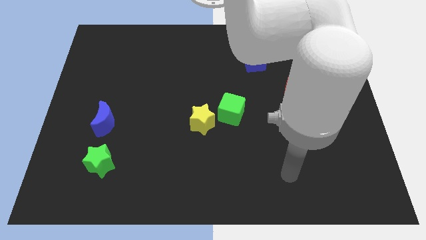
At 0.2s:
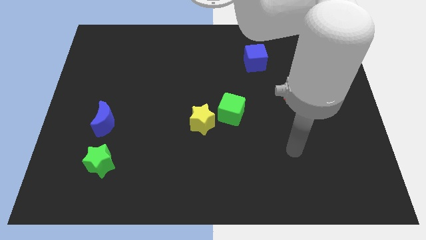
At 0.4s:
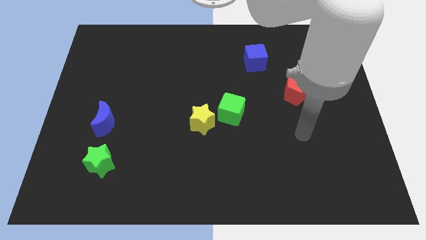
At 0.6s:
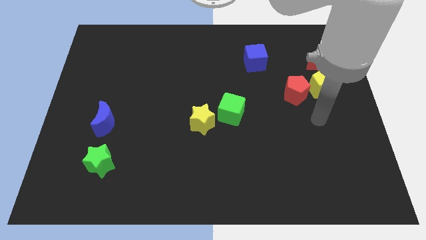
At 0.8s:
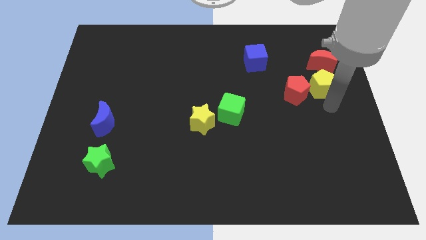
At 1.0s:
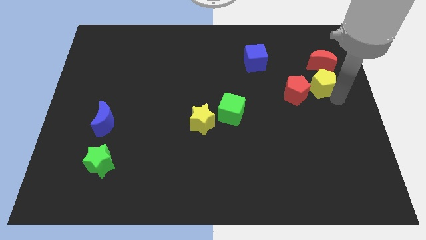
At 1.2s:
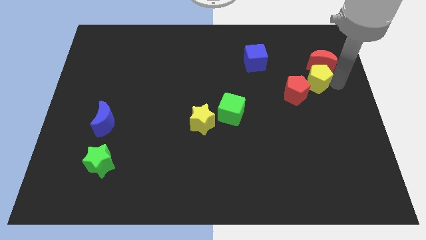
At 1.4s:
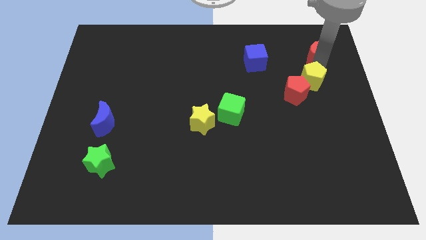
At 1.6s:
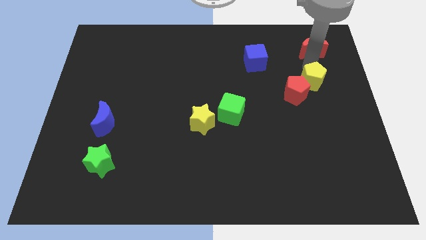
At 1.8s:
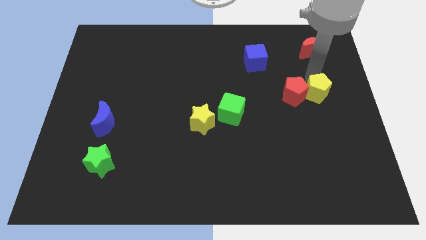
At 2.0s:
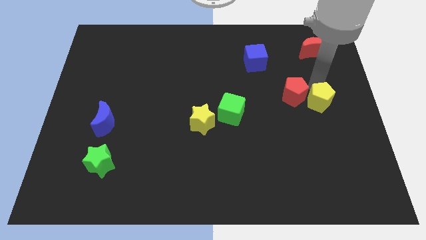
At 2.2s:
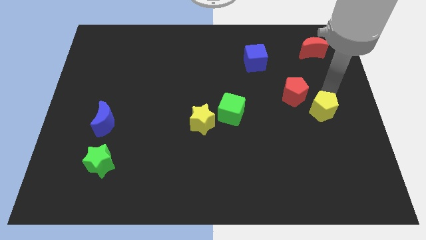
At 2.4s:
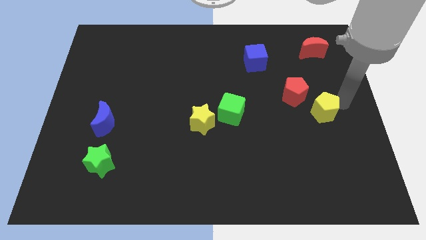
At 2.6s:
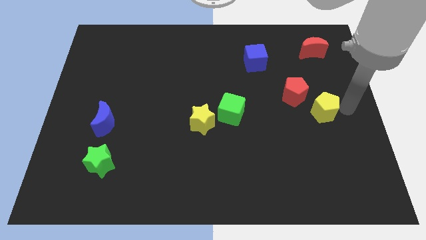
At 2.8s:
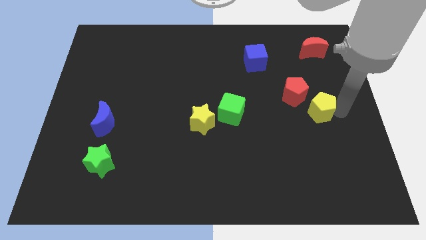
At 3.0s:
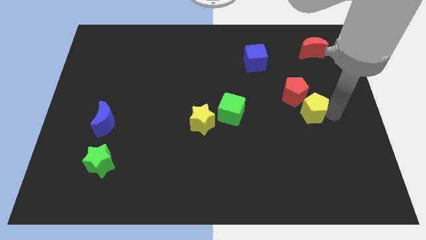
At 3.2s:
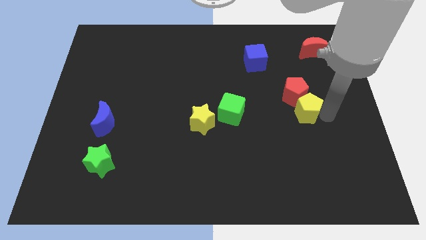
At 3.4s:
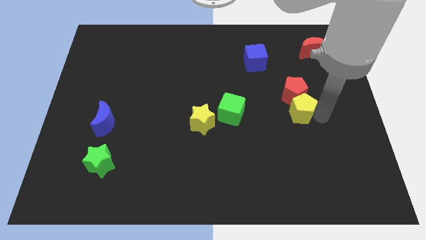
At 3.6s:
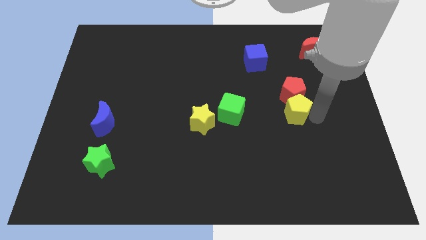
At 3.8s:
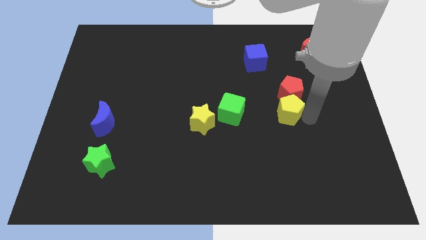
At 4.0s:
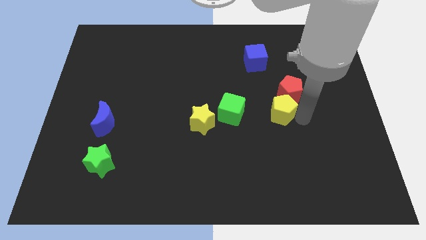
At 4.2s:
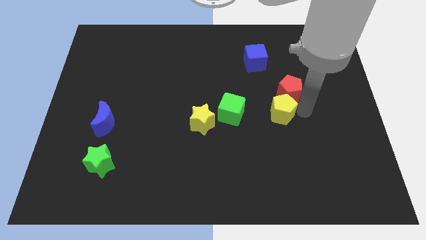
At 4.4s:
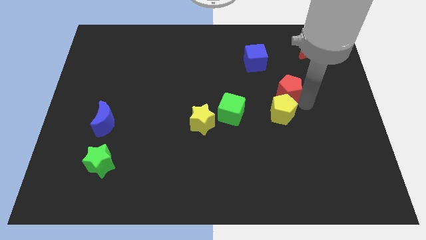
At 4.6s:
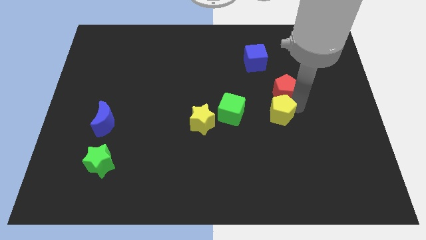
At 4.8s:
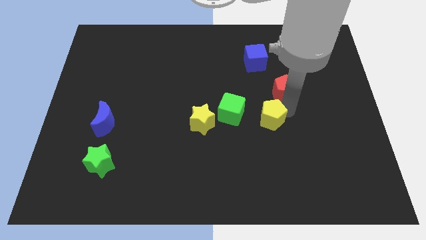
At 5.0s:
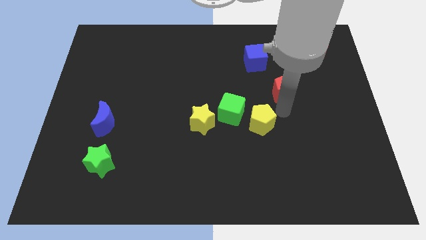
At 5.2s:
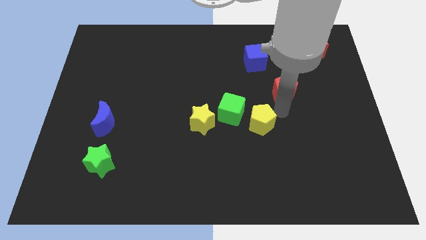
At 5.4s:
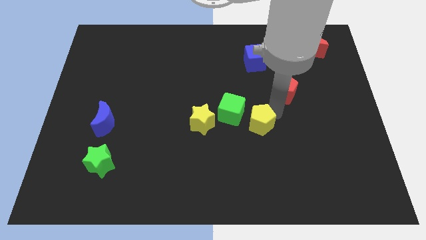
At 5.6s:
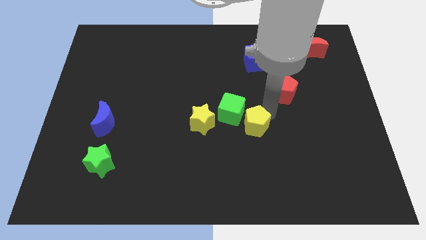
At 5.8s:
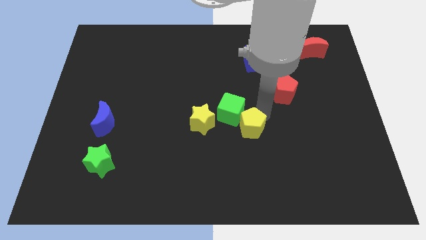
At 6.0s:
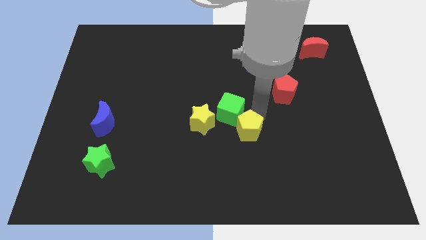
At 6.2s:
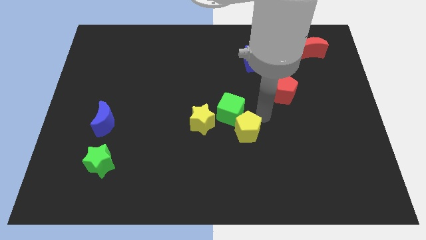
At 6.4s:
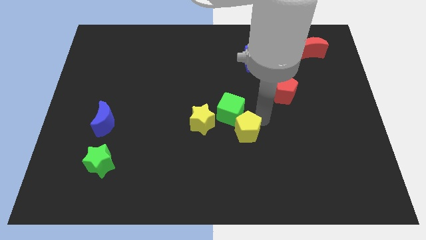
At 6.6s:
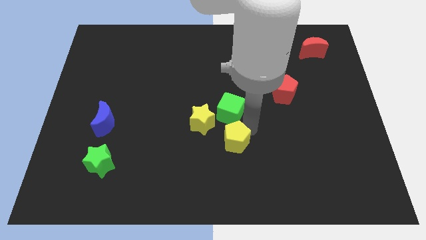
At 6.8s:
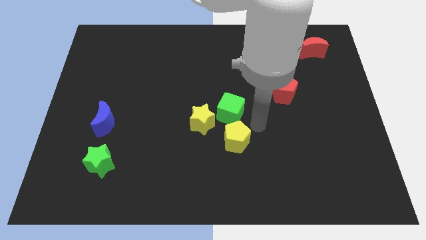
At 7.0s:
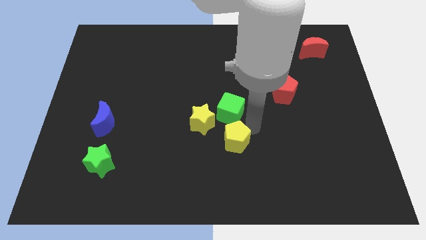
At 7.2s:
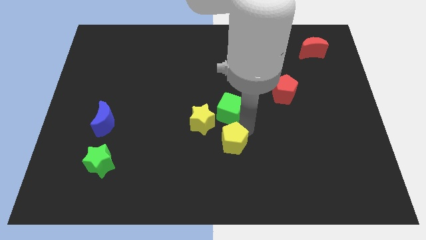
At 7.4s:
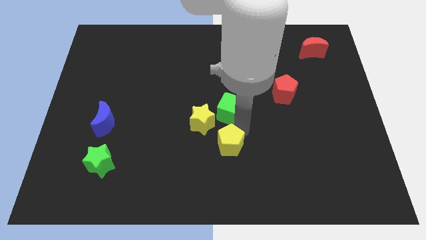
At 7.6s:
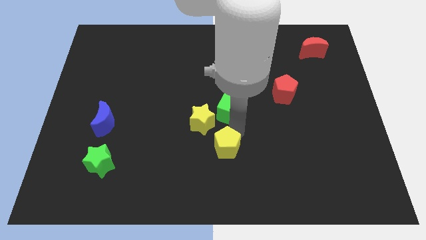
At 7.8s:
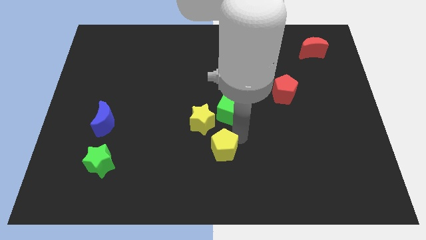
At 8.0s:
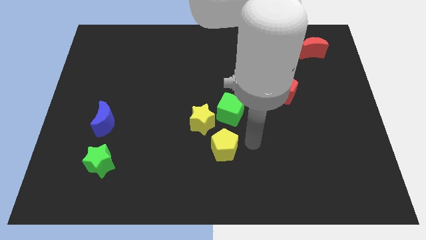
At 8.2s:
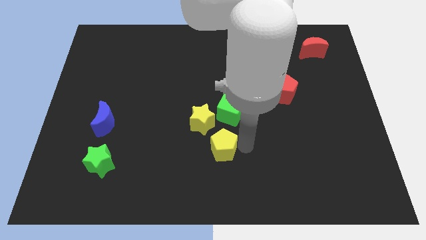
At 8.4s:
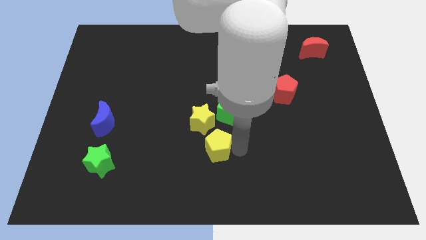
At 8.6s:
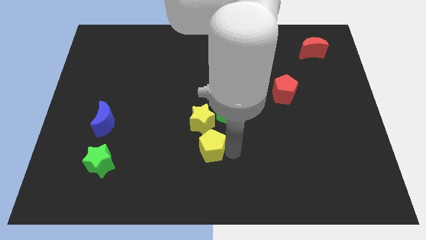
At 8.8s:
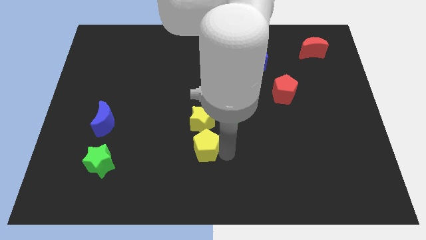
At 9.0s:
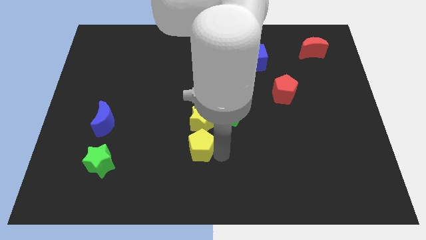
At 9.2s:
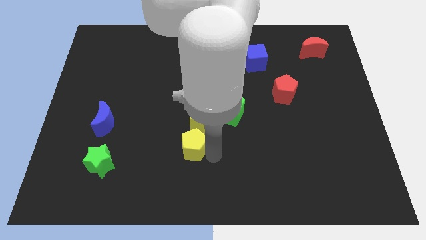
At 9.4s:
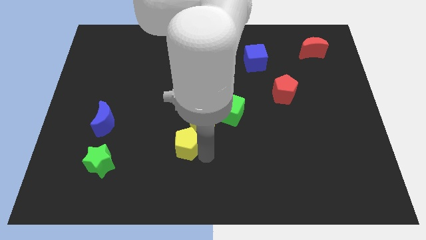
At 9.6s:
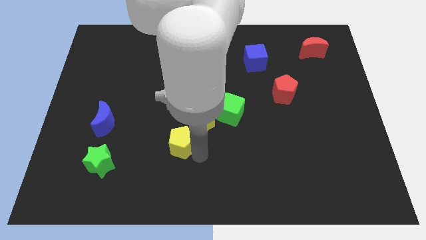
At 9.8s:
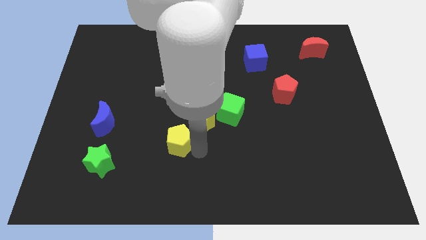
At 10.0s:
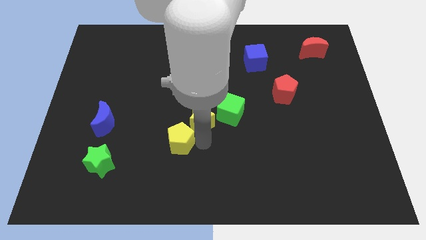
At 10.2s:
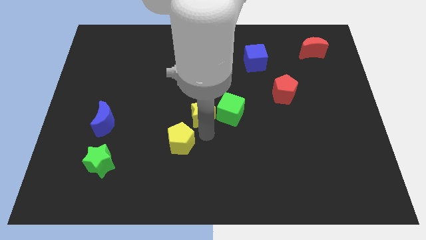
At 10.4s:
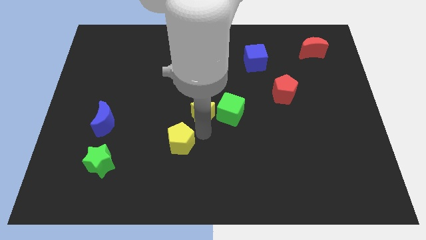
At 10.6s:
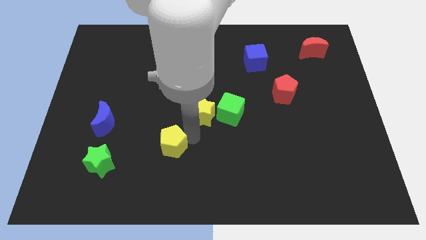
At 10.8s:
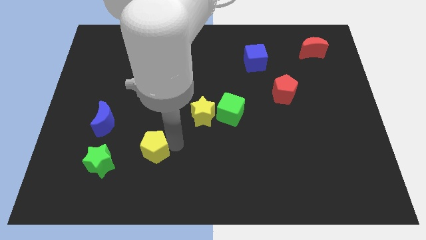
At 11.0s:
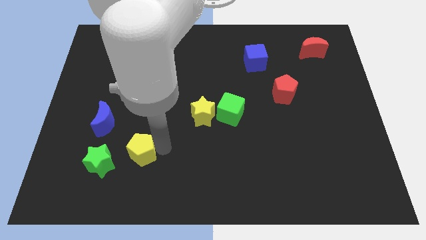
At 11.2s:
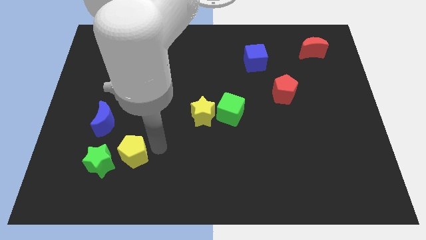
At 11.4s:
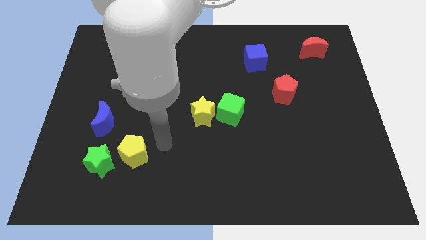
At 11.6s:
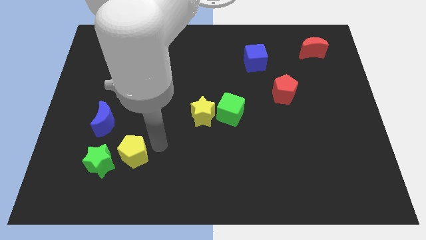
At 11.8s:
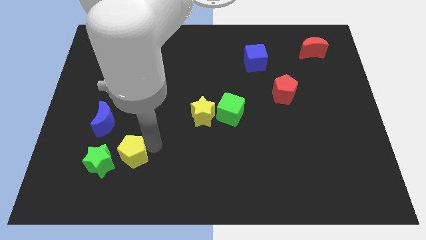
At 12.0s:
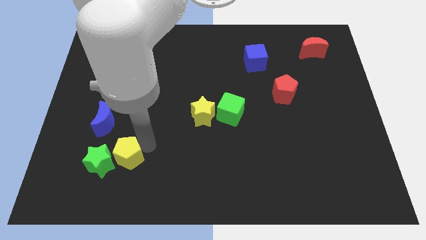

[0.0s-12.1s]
move the yellow pentagon towards the green star

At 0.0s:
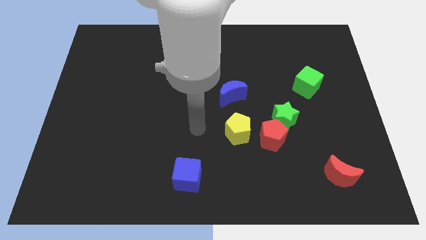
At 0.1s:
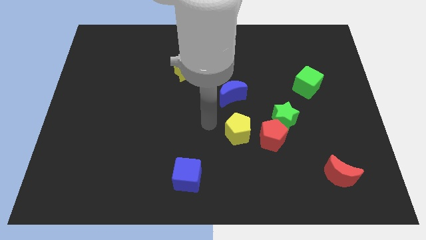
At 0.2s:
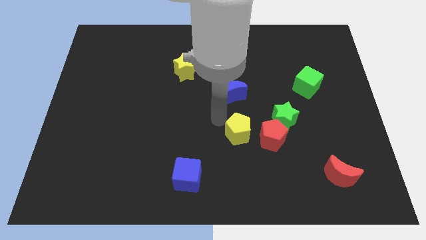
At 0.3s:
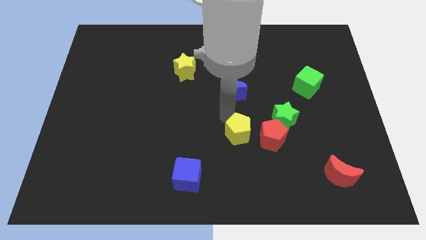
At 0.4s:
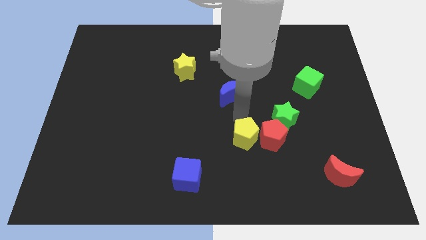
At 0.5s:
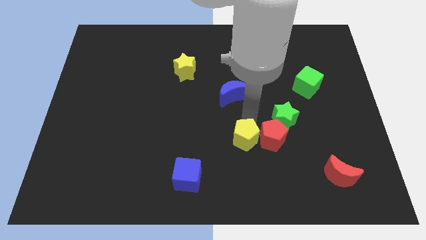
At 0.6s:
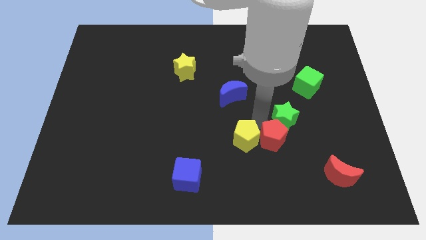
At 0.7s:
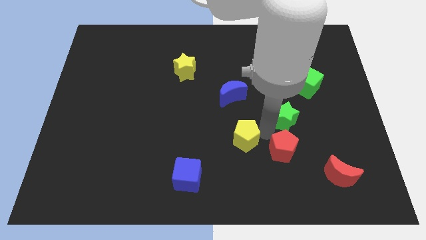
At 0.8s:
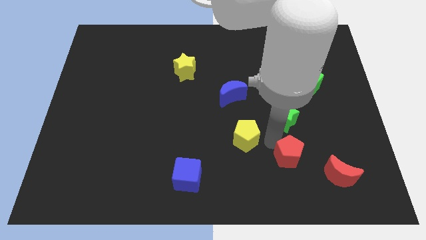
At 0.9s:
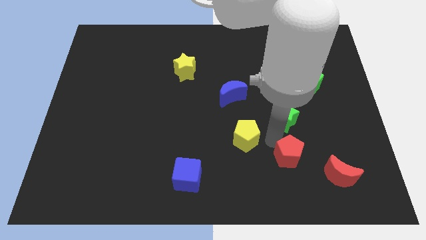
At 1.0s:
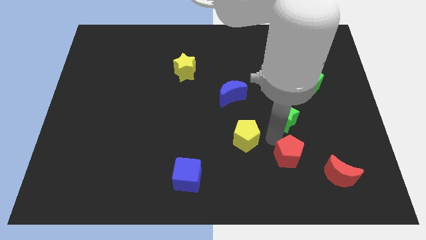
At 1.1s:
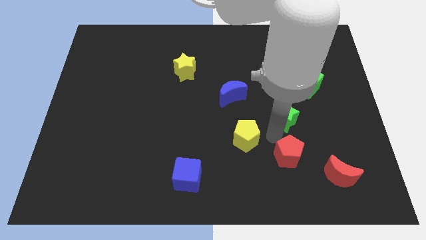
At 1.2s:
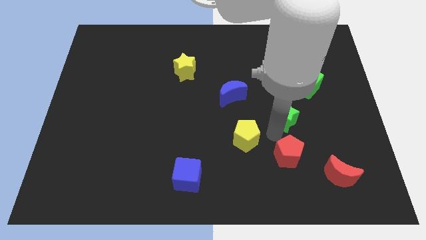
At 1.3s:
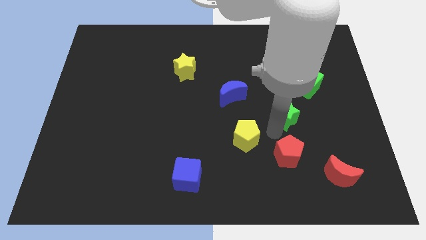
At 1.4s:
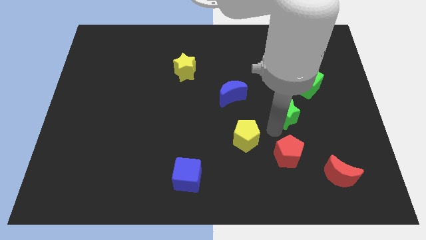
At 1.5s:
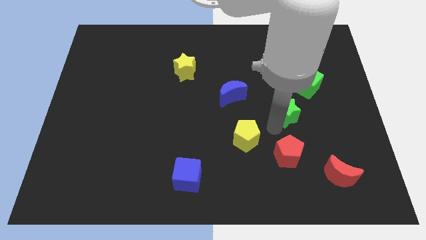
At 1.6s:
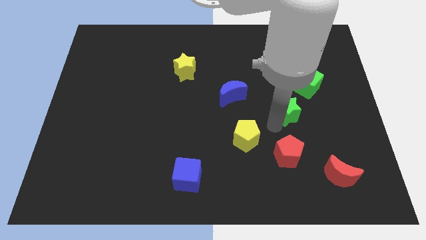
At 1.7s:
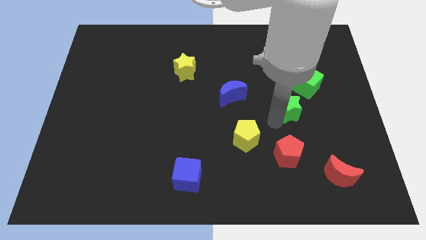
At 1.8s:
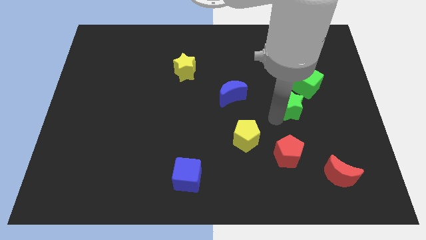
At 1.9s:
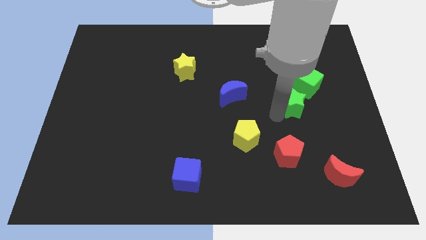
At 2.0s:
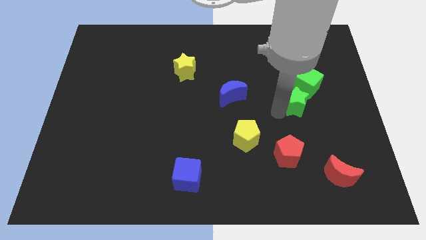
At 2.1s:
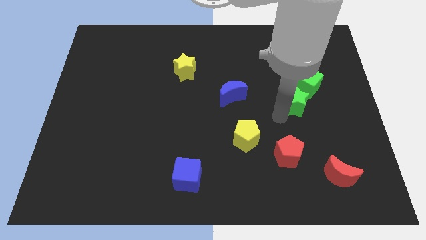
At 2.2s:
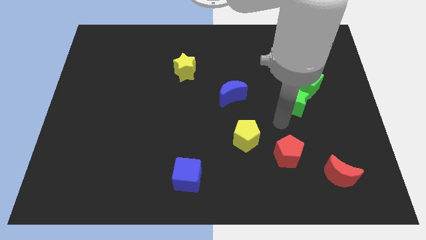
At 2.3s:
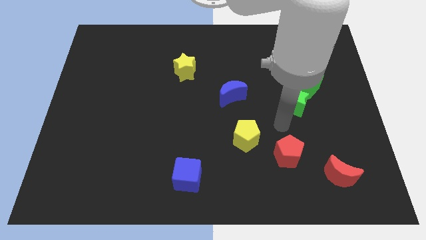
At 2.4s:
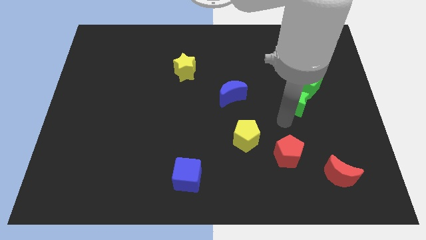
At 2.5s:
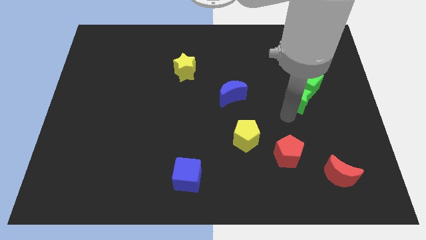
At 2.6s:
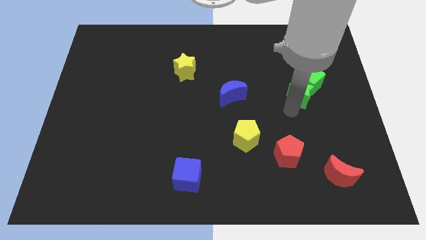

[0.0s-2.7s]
put the green star close to the green cube
